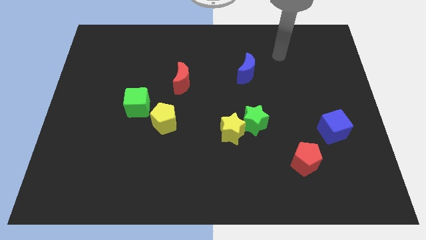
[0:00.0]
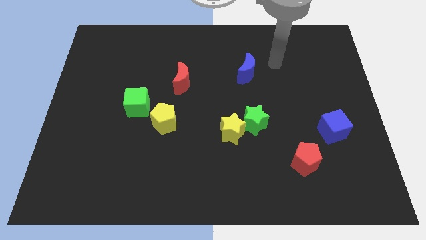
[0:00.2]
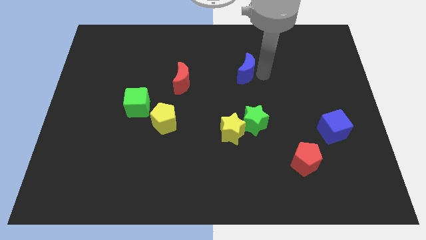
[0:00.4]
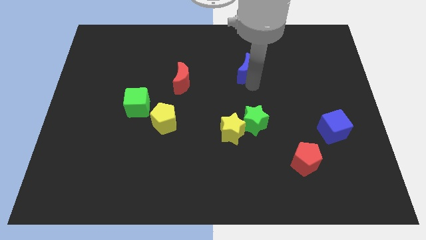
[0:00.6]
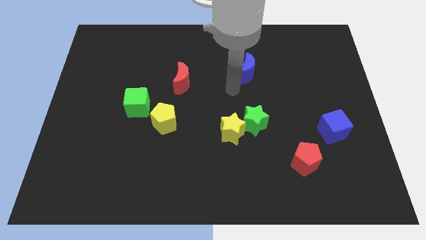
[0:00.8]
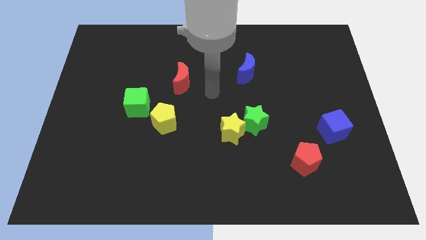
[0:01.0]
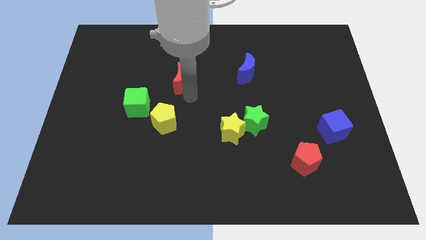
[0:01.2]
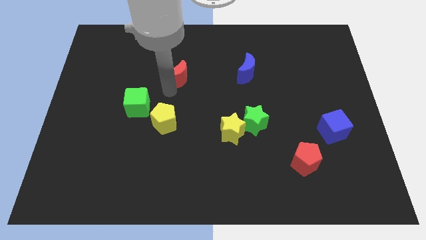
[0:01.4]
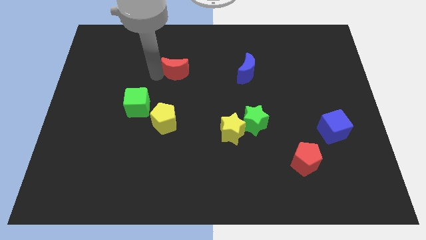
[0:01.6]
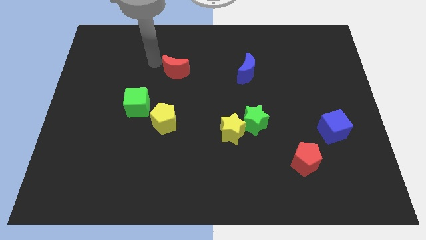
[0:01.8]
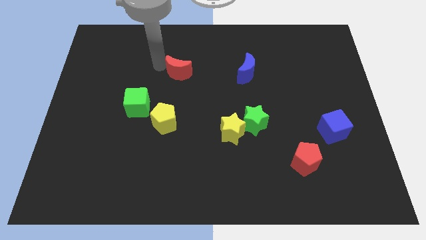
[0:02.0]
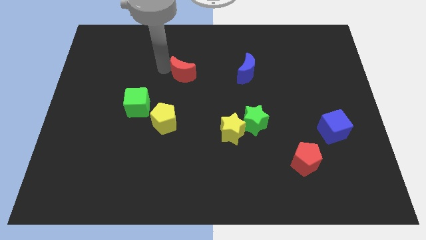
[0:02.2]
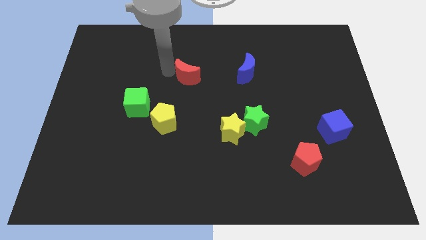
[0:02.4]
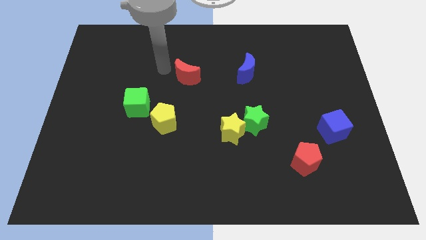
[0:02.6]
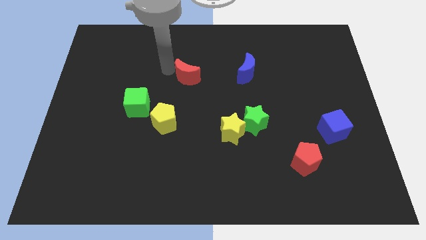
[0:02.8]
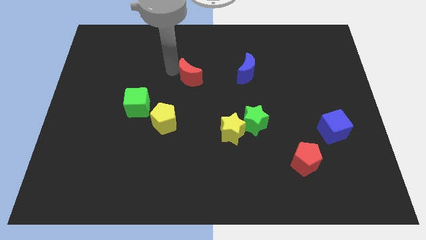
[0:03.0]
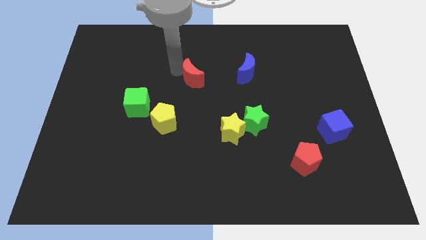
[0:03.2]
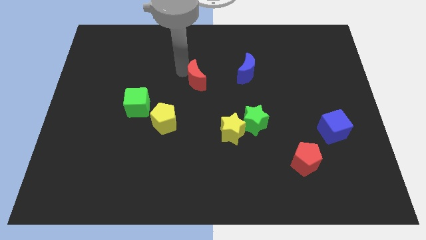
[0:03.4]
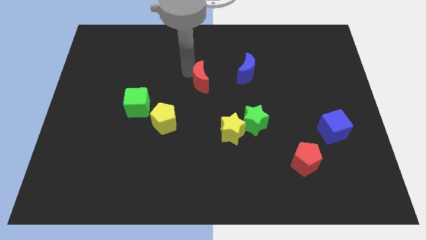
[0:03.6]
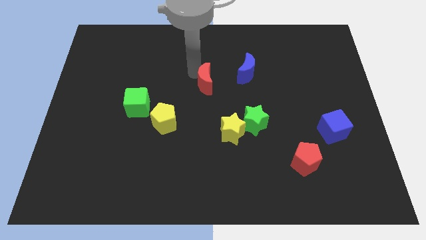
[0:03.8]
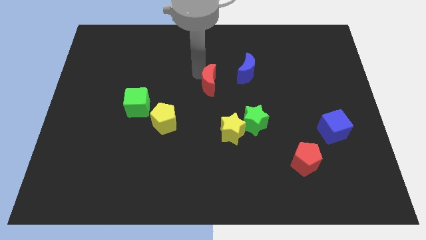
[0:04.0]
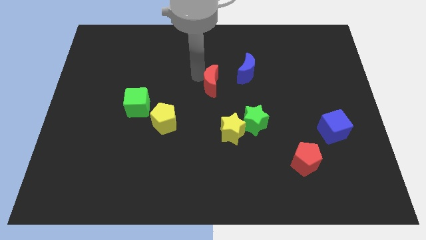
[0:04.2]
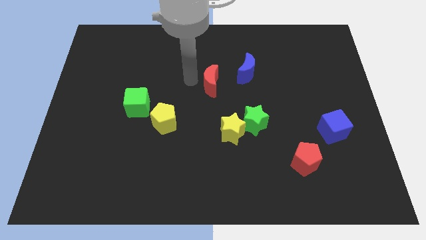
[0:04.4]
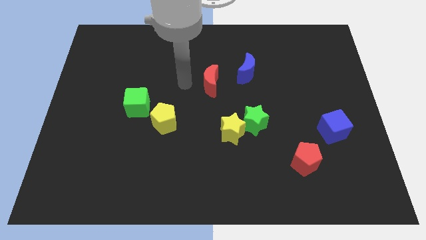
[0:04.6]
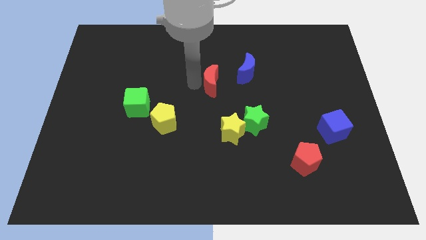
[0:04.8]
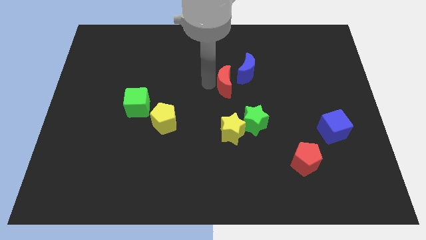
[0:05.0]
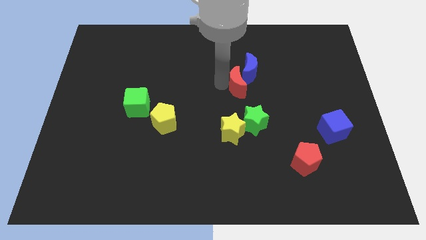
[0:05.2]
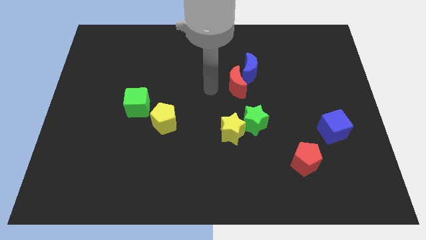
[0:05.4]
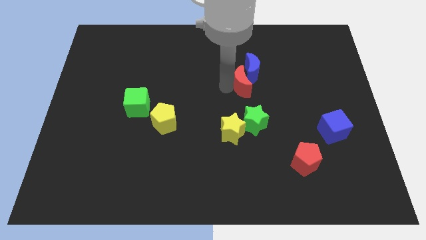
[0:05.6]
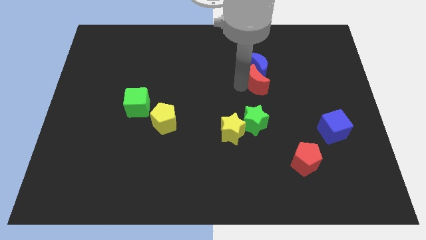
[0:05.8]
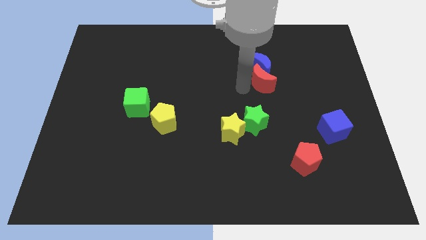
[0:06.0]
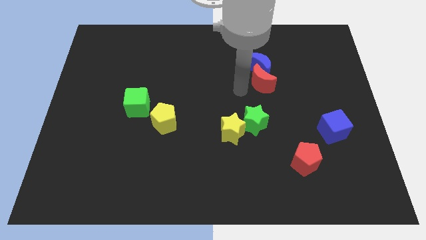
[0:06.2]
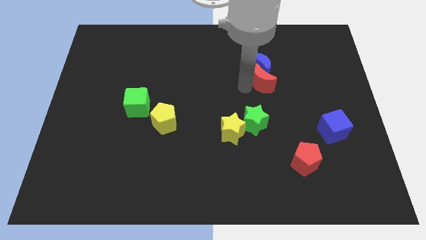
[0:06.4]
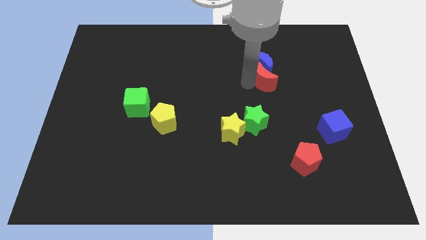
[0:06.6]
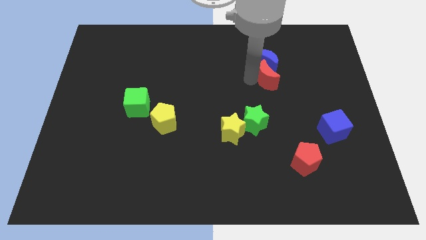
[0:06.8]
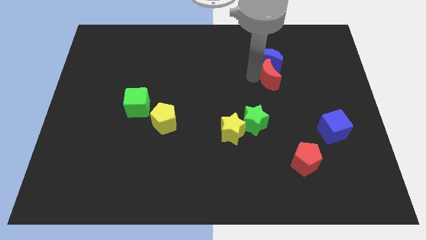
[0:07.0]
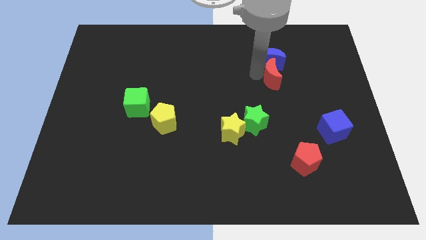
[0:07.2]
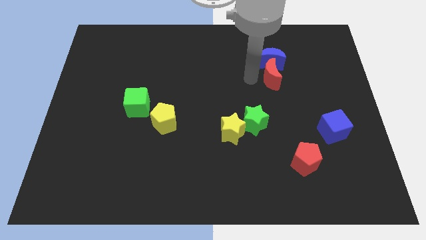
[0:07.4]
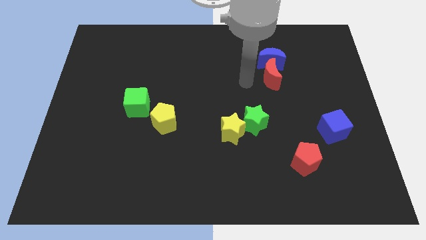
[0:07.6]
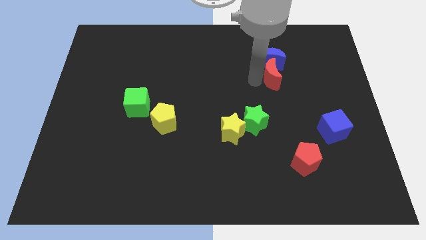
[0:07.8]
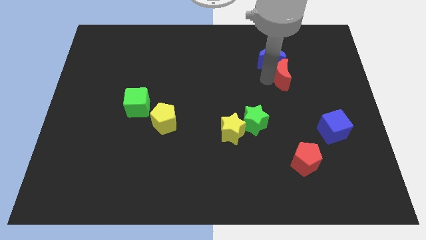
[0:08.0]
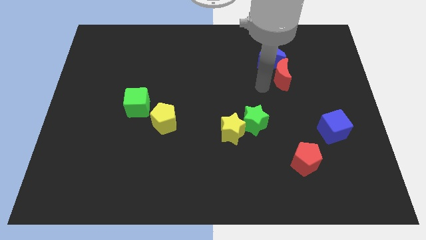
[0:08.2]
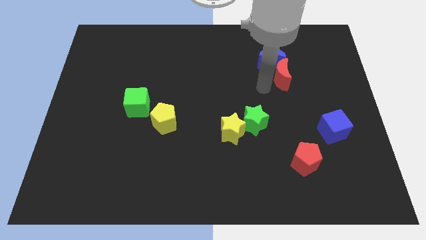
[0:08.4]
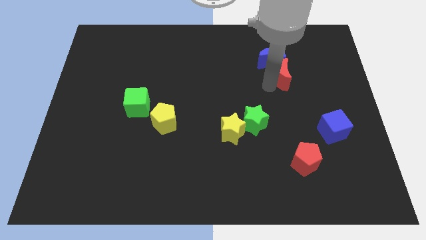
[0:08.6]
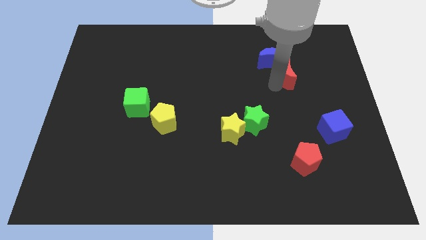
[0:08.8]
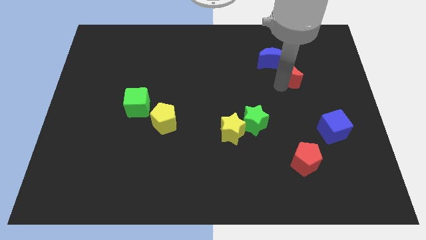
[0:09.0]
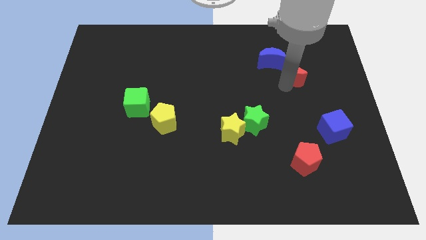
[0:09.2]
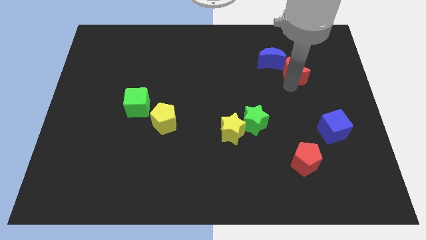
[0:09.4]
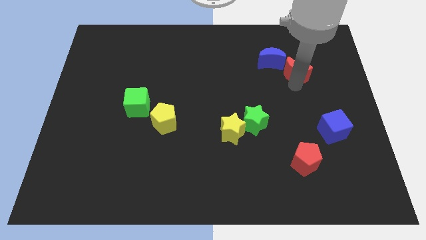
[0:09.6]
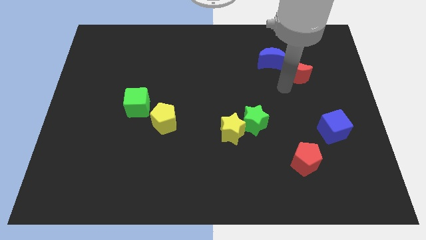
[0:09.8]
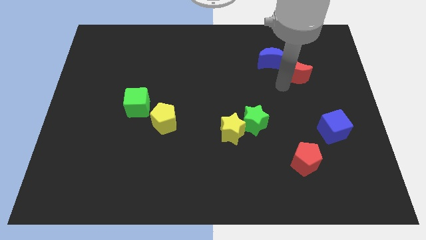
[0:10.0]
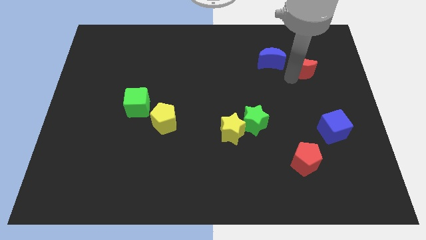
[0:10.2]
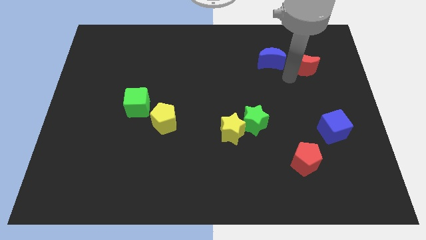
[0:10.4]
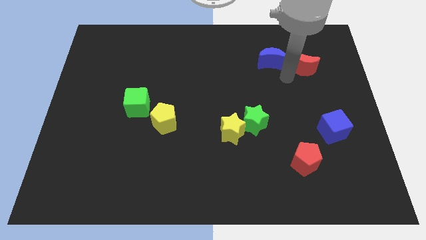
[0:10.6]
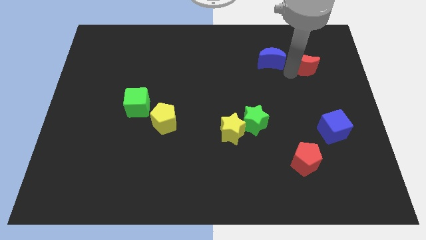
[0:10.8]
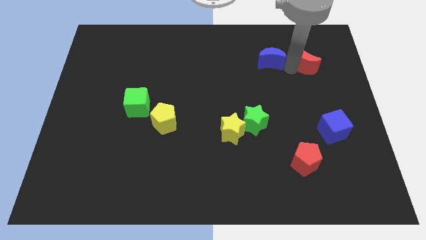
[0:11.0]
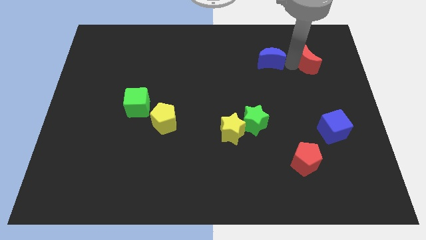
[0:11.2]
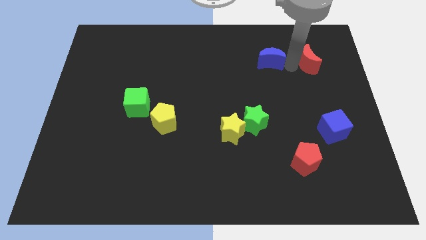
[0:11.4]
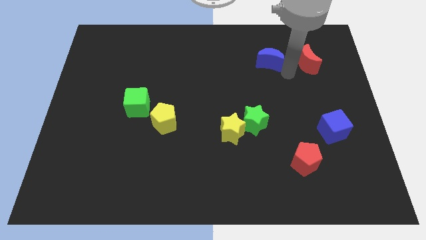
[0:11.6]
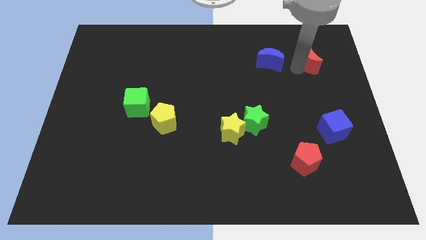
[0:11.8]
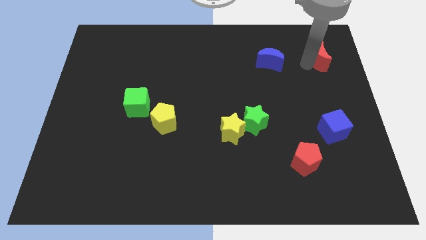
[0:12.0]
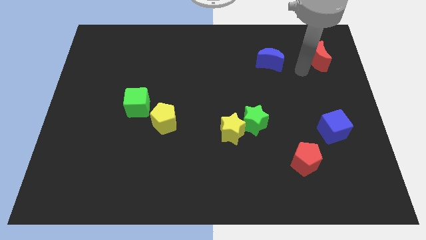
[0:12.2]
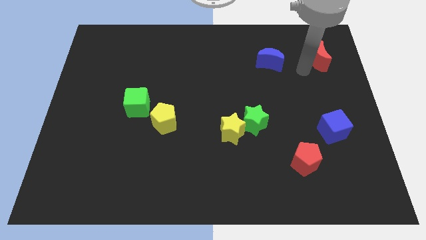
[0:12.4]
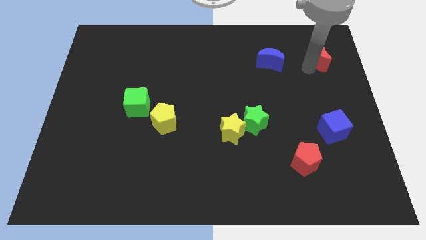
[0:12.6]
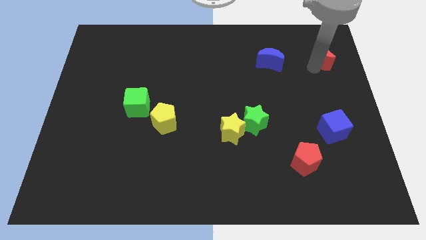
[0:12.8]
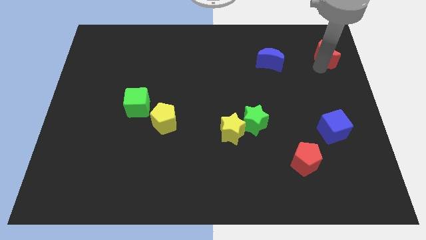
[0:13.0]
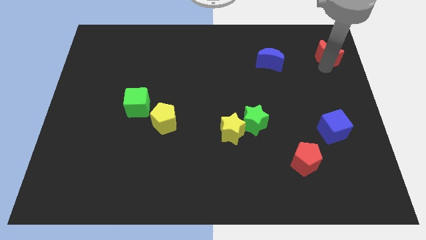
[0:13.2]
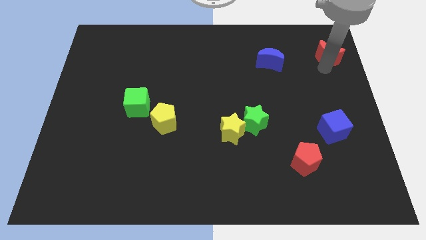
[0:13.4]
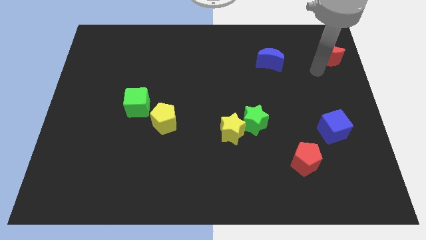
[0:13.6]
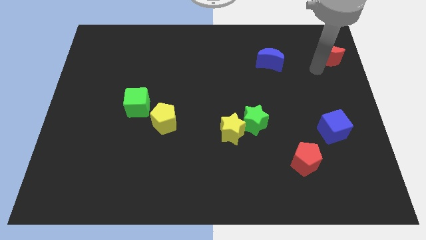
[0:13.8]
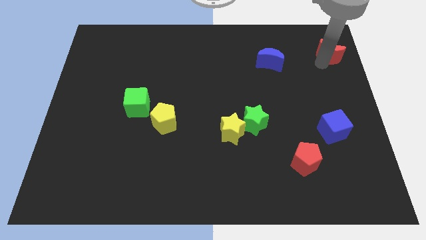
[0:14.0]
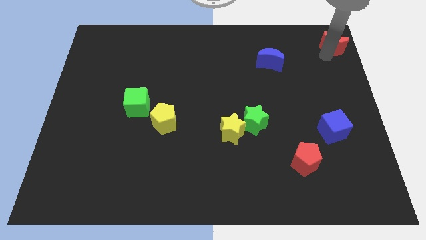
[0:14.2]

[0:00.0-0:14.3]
move the red moon to the top right of the board
